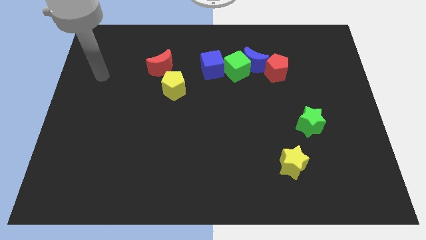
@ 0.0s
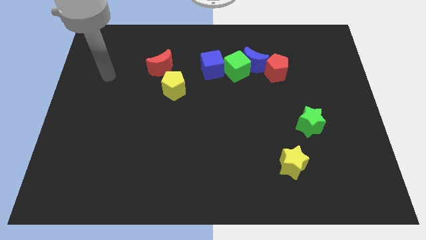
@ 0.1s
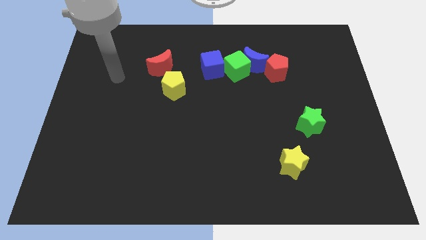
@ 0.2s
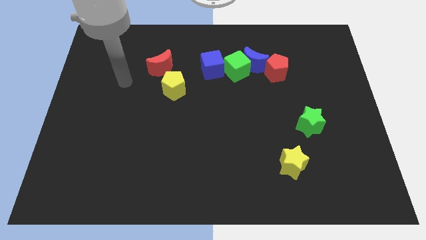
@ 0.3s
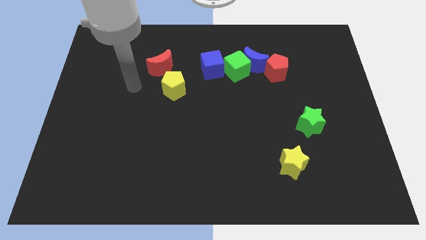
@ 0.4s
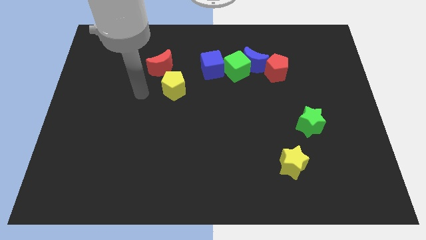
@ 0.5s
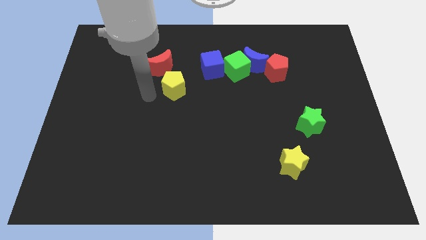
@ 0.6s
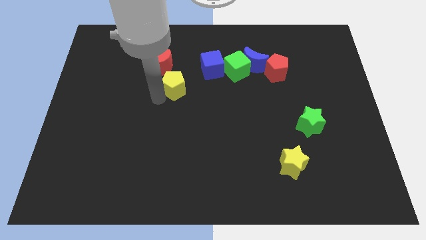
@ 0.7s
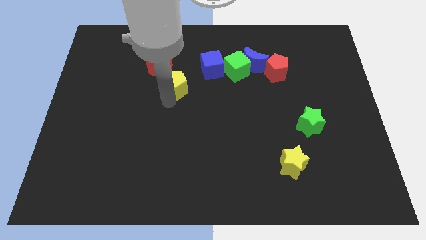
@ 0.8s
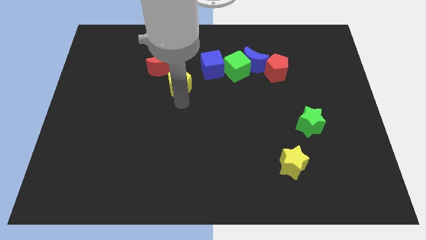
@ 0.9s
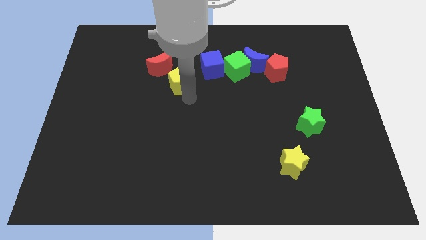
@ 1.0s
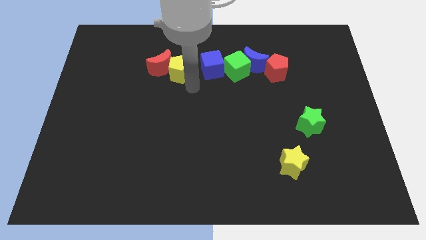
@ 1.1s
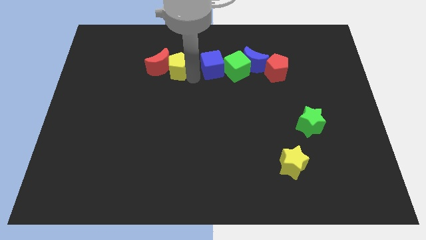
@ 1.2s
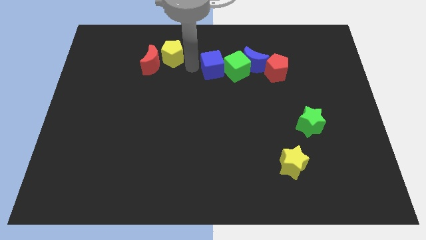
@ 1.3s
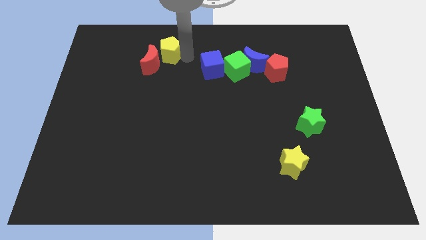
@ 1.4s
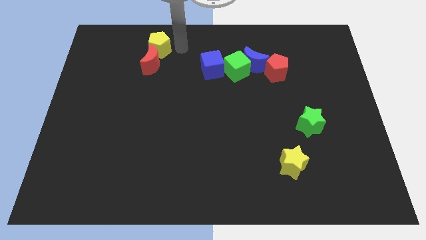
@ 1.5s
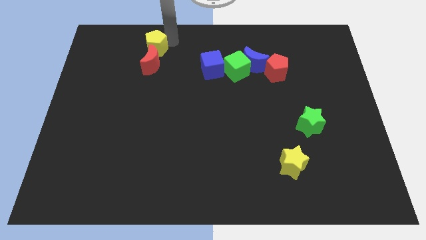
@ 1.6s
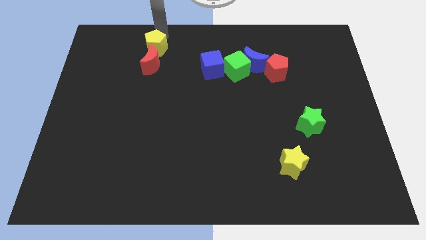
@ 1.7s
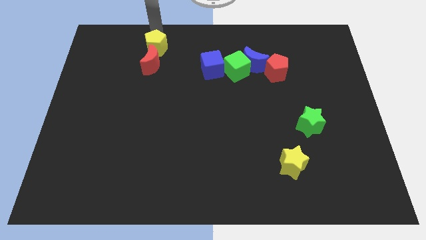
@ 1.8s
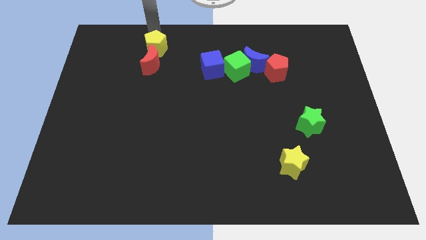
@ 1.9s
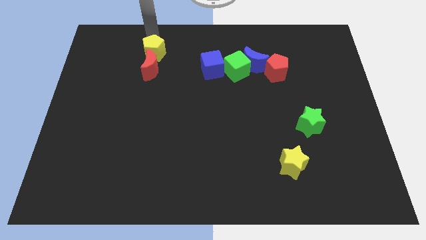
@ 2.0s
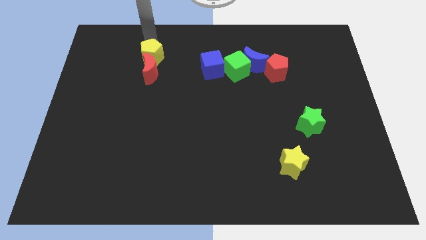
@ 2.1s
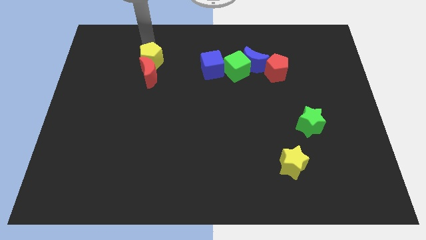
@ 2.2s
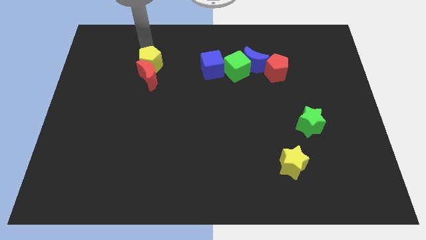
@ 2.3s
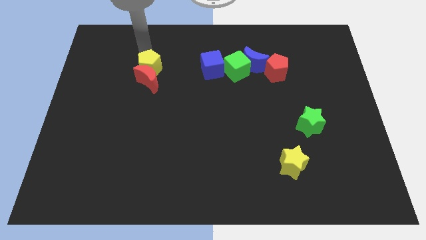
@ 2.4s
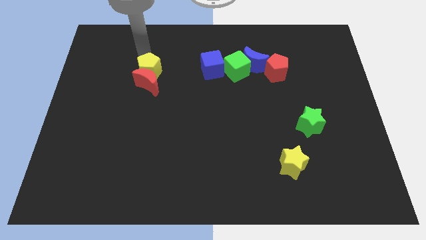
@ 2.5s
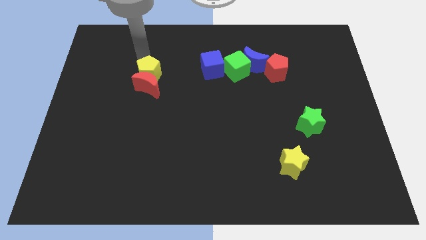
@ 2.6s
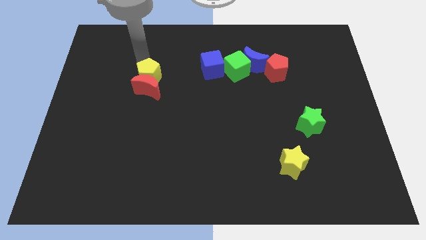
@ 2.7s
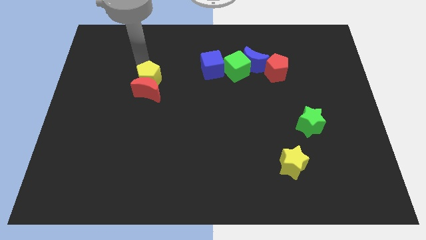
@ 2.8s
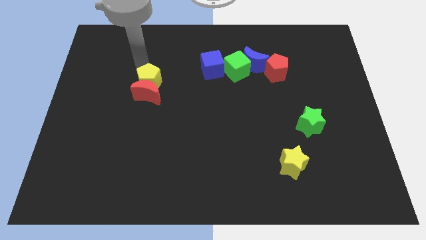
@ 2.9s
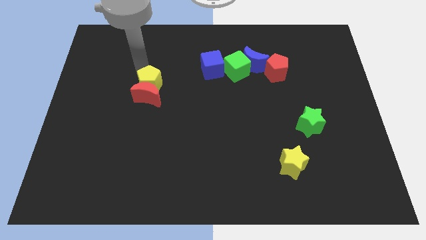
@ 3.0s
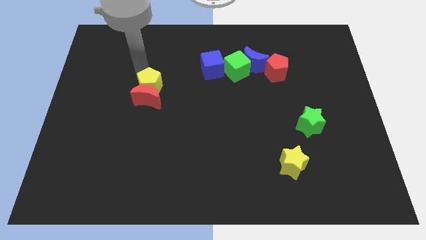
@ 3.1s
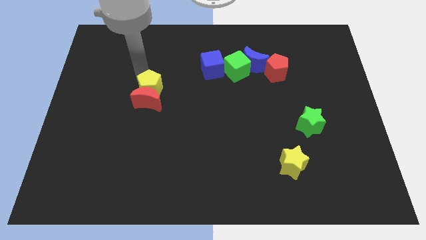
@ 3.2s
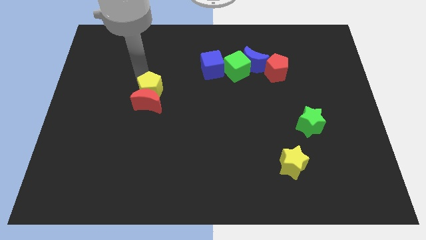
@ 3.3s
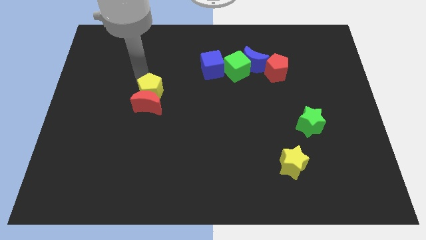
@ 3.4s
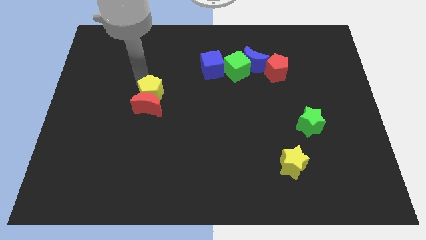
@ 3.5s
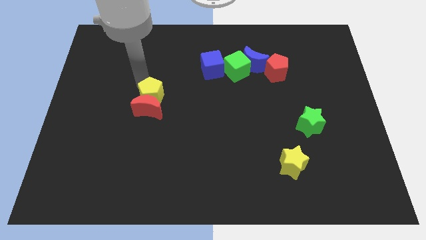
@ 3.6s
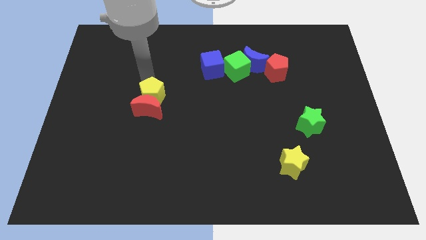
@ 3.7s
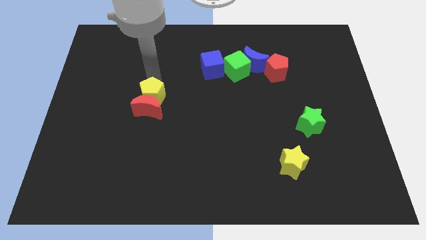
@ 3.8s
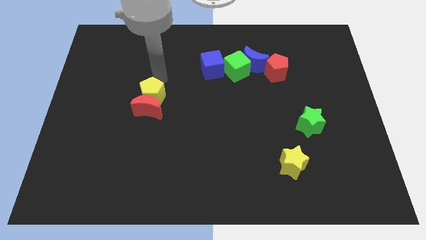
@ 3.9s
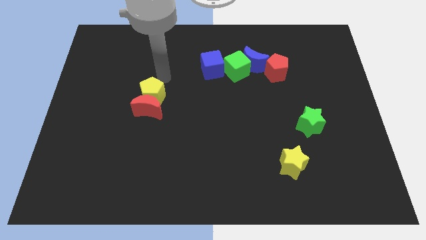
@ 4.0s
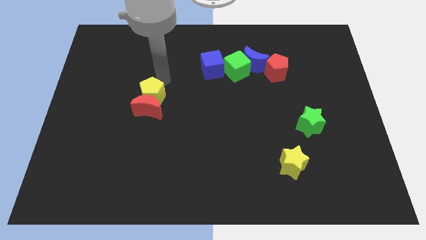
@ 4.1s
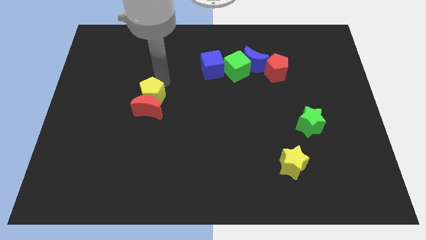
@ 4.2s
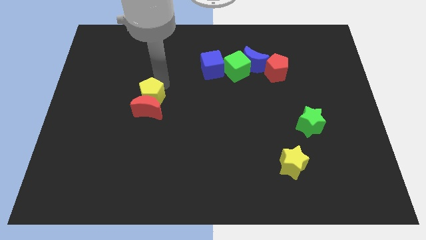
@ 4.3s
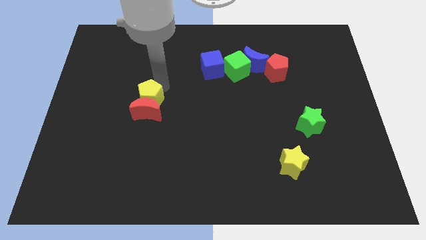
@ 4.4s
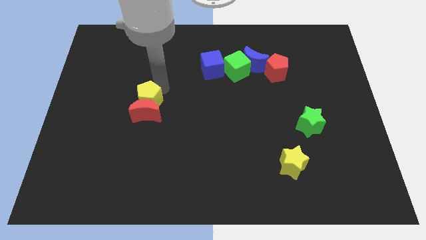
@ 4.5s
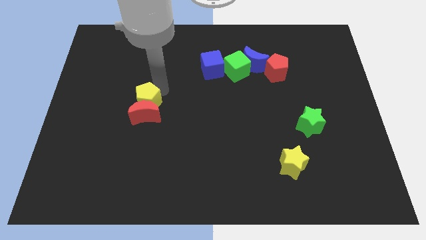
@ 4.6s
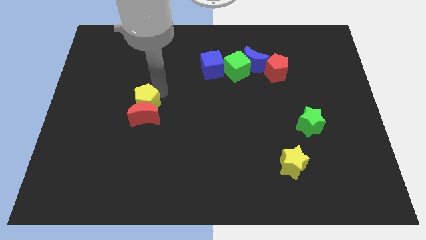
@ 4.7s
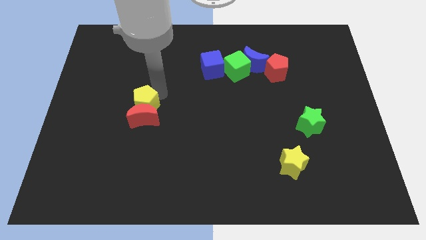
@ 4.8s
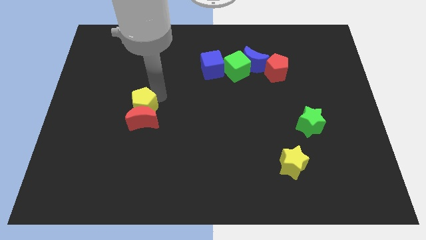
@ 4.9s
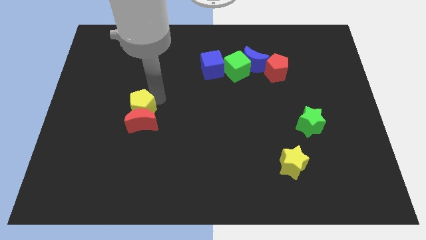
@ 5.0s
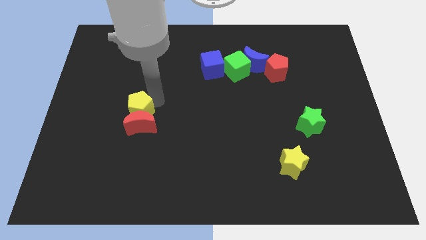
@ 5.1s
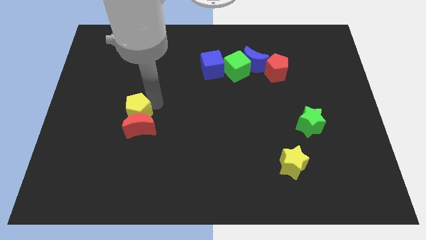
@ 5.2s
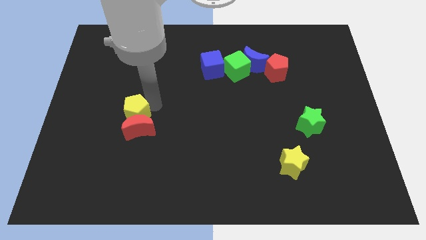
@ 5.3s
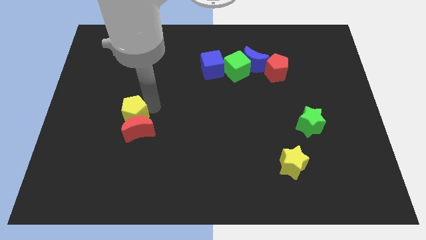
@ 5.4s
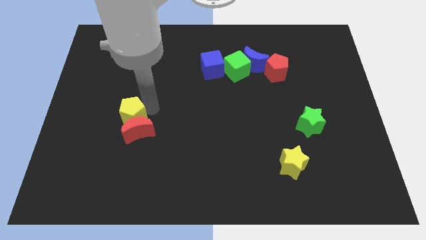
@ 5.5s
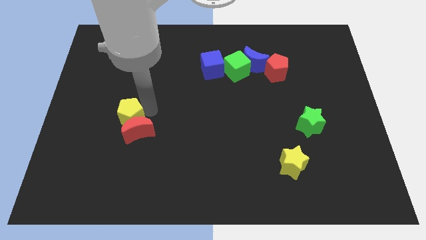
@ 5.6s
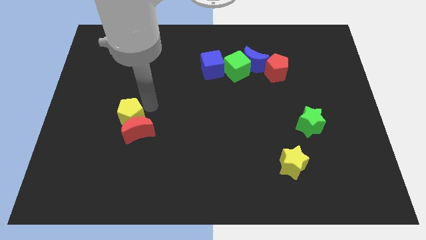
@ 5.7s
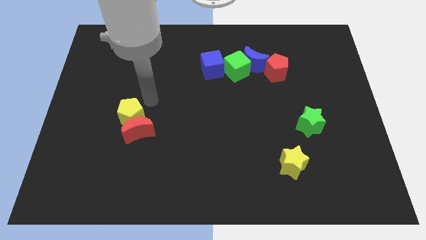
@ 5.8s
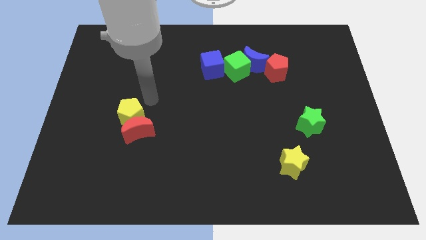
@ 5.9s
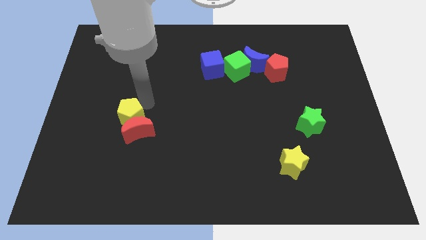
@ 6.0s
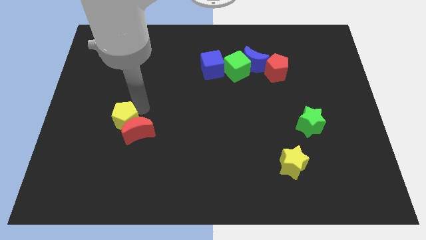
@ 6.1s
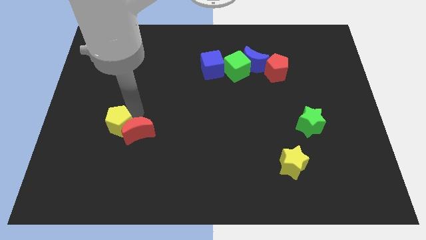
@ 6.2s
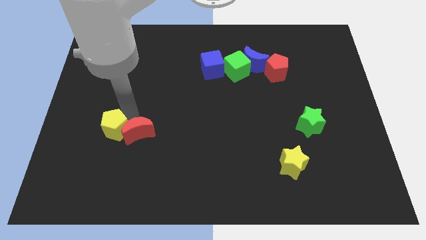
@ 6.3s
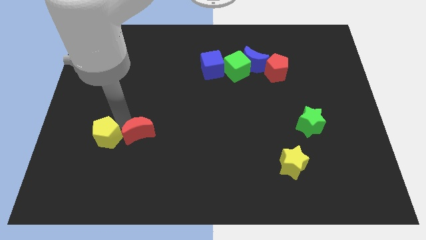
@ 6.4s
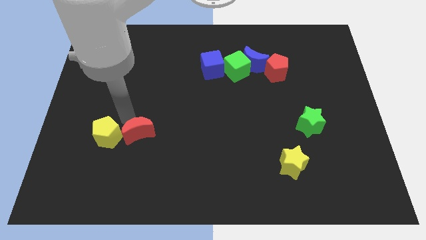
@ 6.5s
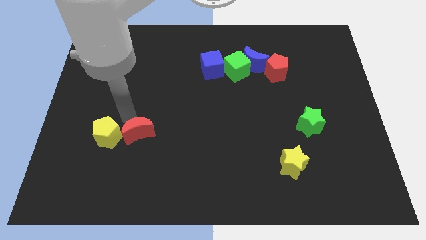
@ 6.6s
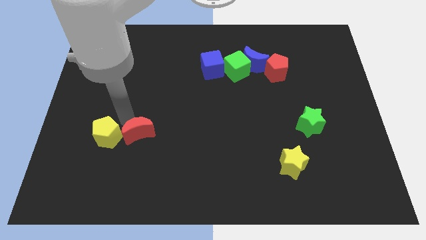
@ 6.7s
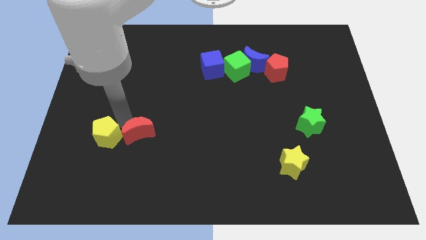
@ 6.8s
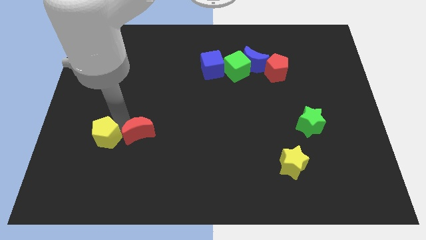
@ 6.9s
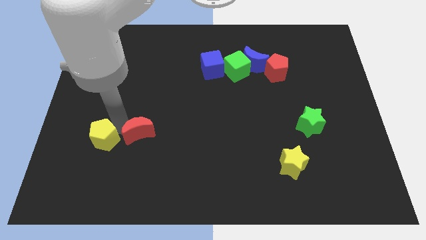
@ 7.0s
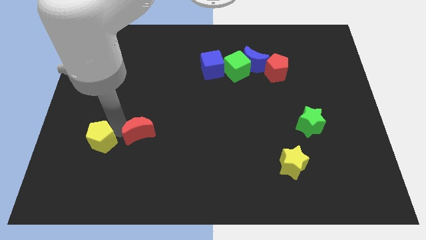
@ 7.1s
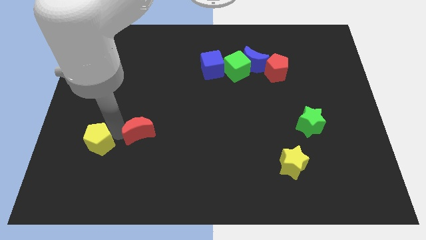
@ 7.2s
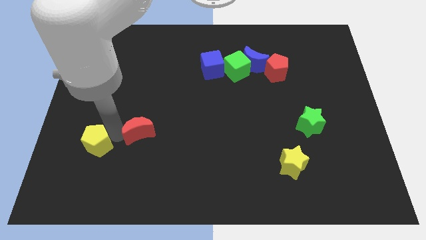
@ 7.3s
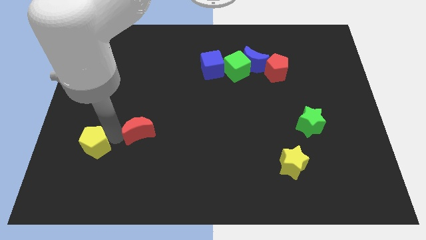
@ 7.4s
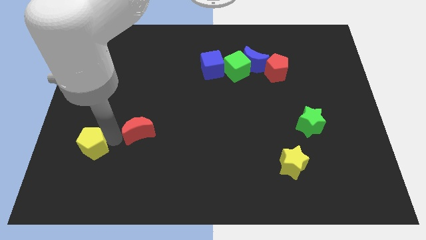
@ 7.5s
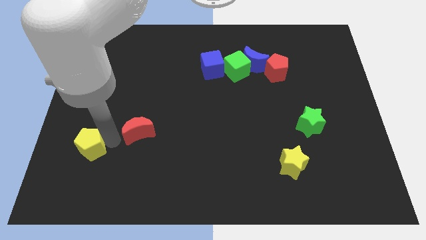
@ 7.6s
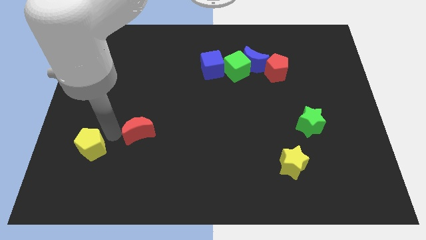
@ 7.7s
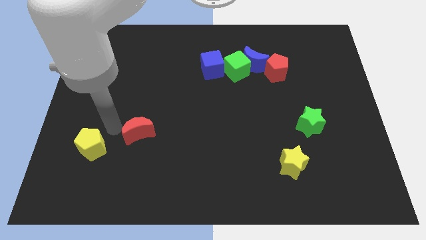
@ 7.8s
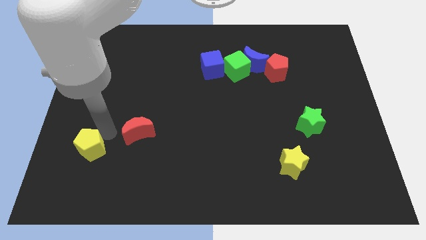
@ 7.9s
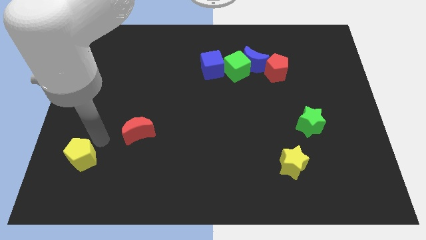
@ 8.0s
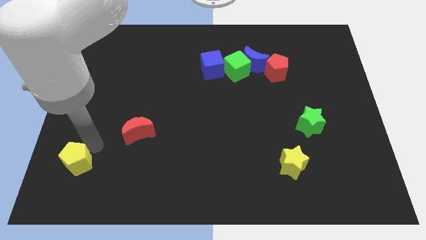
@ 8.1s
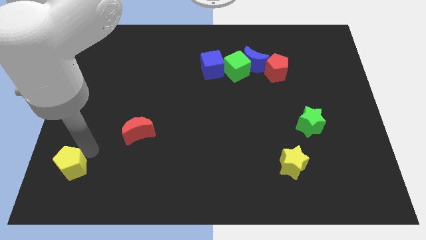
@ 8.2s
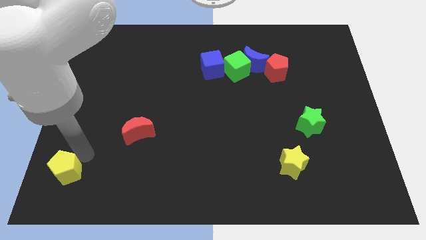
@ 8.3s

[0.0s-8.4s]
slide the yellow pentagon to the lower left corner
